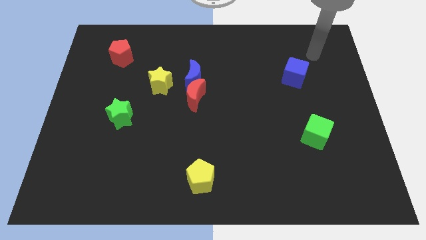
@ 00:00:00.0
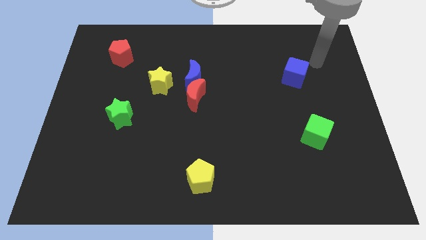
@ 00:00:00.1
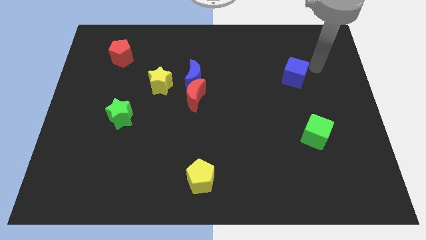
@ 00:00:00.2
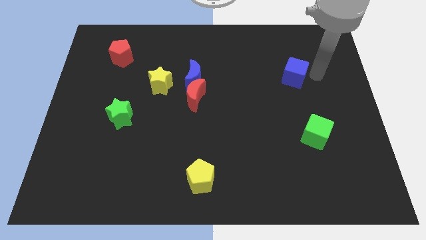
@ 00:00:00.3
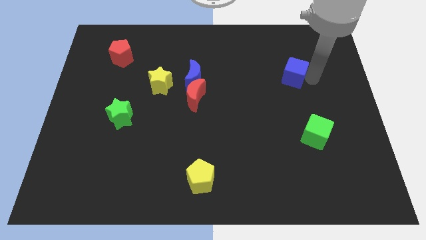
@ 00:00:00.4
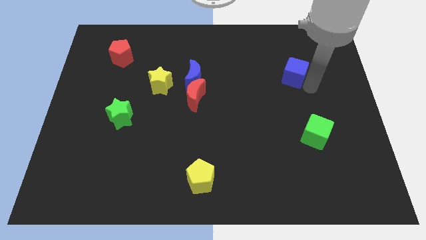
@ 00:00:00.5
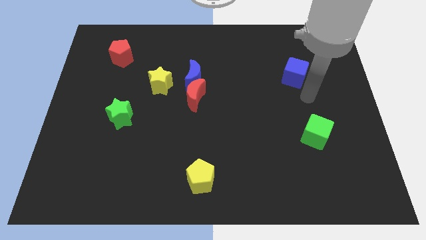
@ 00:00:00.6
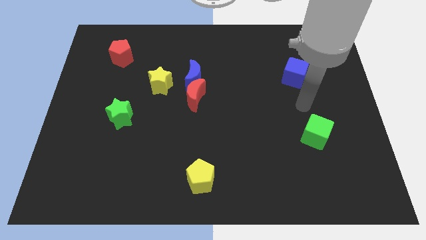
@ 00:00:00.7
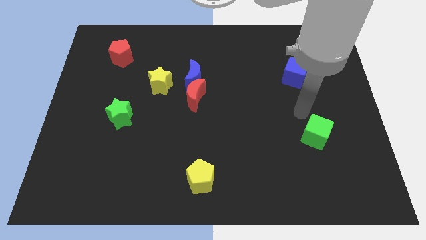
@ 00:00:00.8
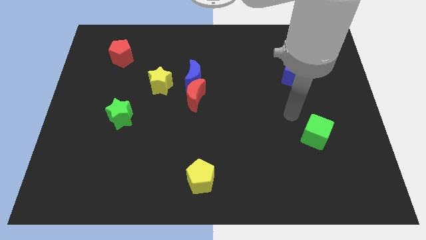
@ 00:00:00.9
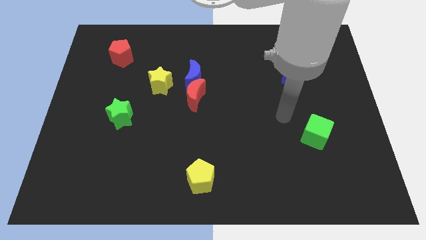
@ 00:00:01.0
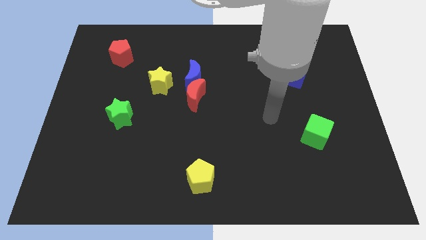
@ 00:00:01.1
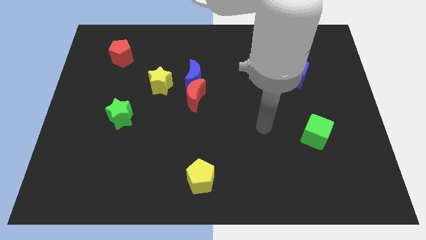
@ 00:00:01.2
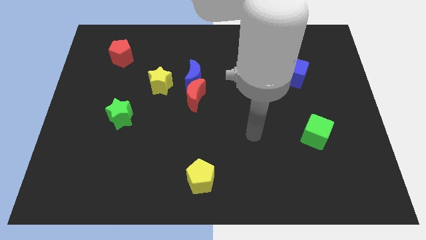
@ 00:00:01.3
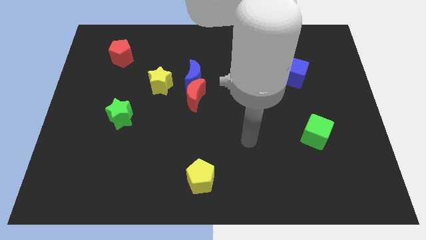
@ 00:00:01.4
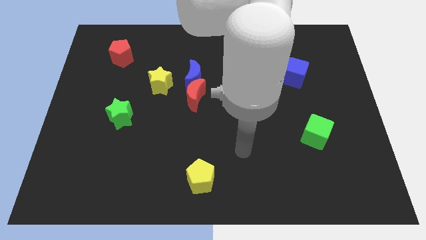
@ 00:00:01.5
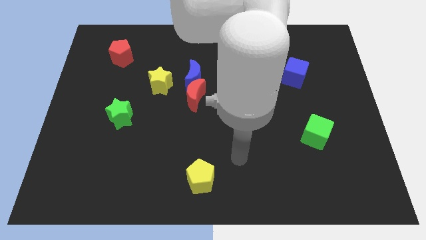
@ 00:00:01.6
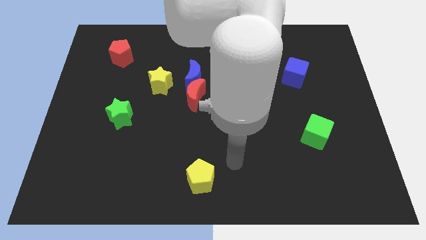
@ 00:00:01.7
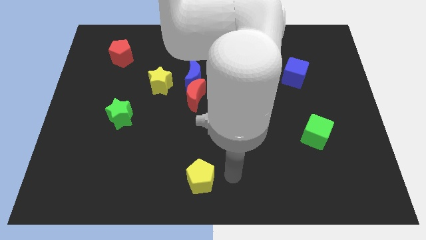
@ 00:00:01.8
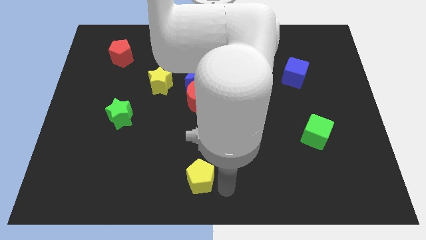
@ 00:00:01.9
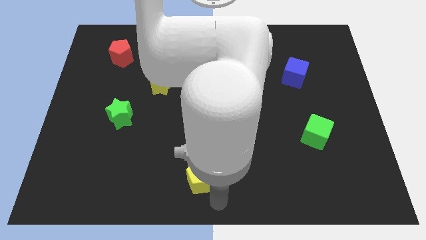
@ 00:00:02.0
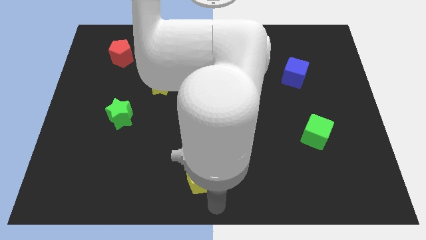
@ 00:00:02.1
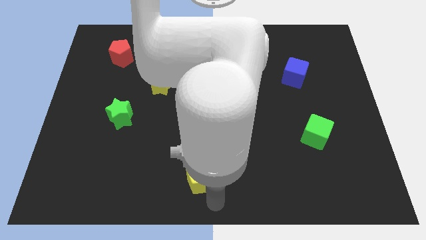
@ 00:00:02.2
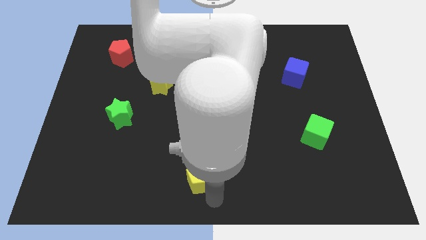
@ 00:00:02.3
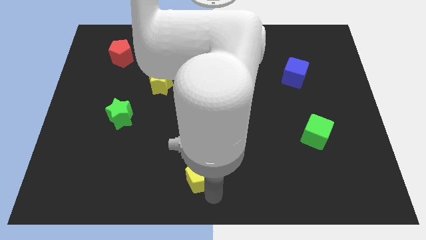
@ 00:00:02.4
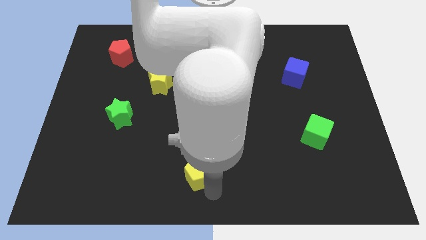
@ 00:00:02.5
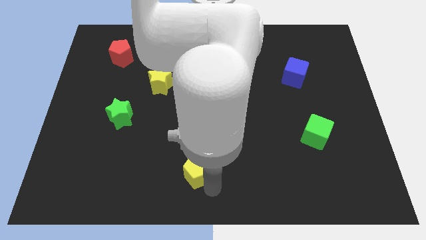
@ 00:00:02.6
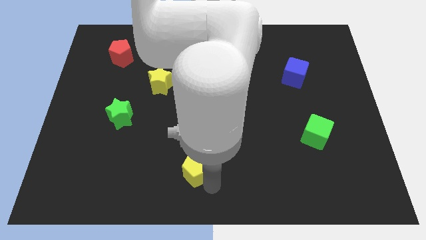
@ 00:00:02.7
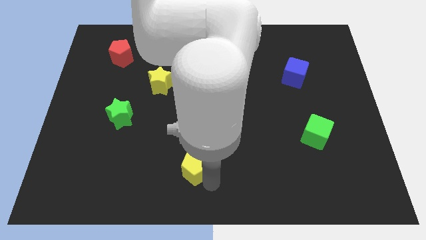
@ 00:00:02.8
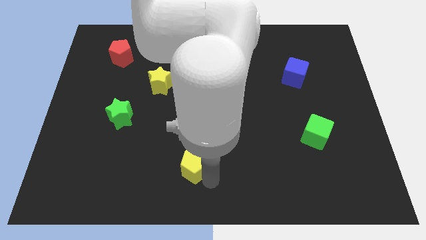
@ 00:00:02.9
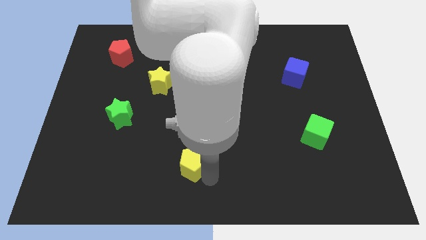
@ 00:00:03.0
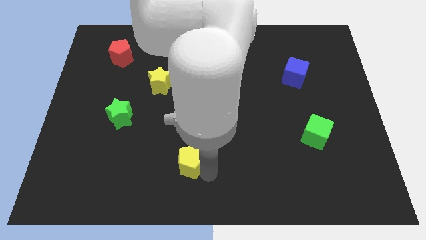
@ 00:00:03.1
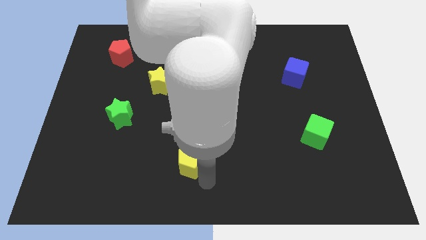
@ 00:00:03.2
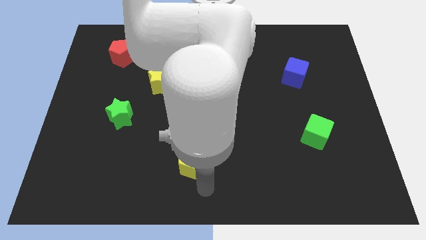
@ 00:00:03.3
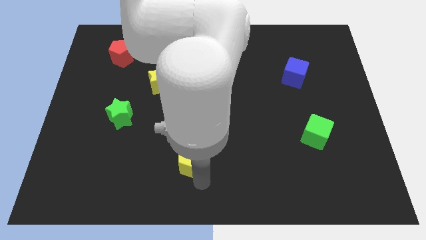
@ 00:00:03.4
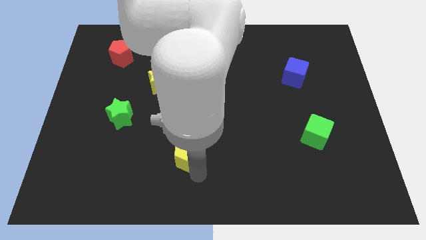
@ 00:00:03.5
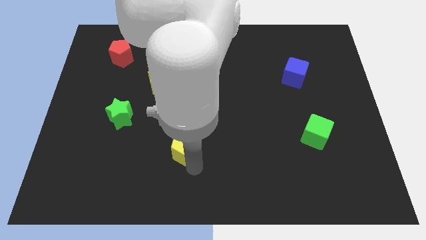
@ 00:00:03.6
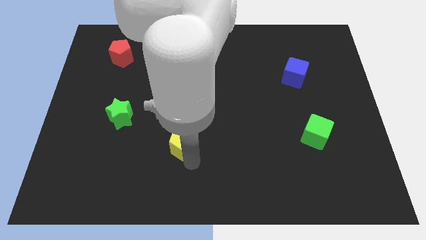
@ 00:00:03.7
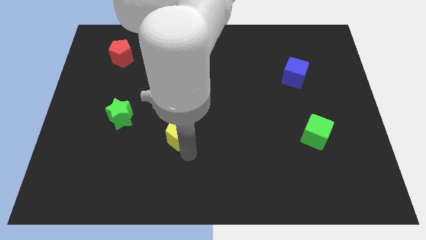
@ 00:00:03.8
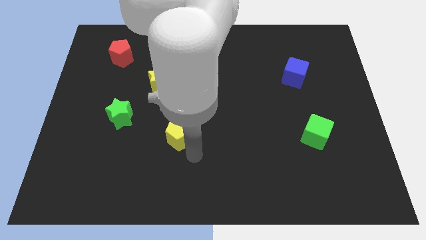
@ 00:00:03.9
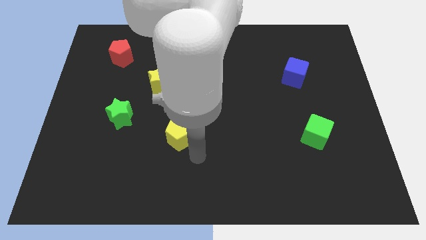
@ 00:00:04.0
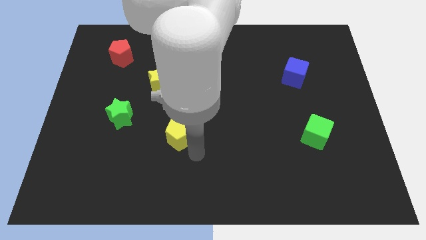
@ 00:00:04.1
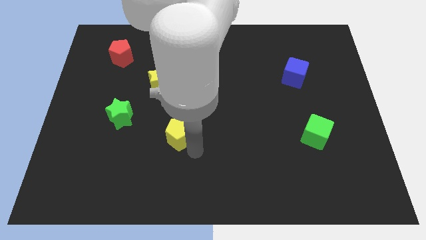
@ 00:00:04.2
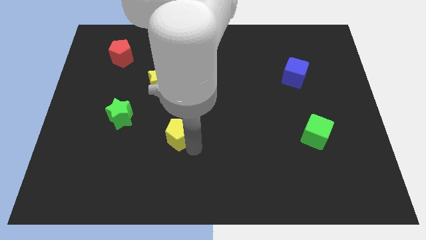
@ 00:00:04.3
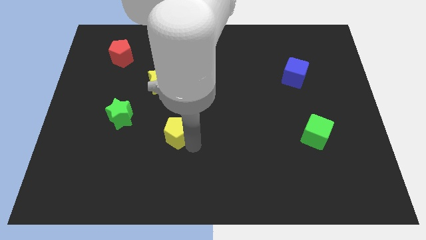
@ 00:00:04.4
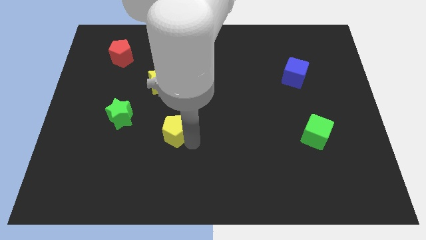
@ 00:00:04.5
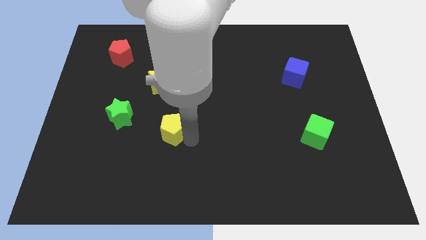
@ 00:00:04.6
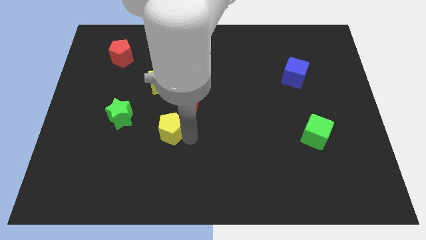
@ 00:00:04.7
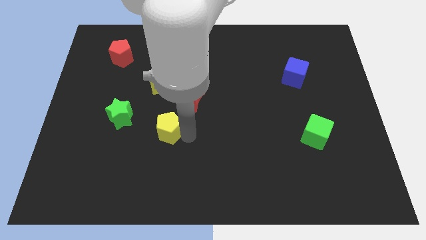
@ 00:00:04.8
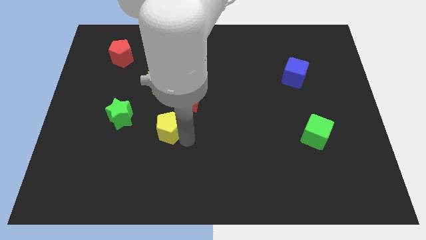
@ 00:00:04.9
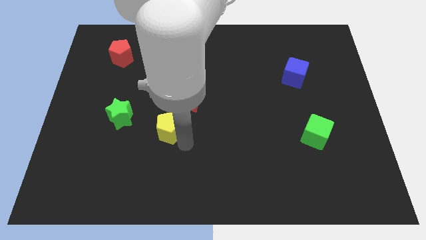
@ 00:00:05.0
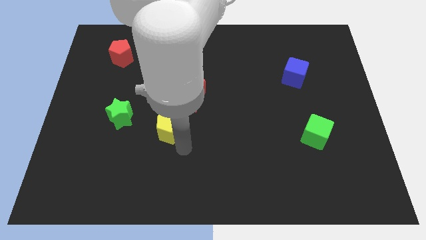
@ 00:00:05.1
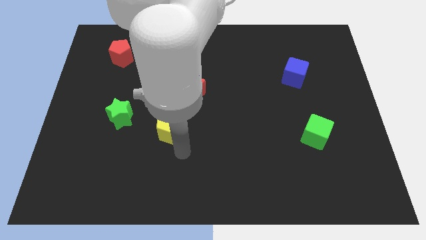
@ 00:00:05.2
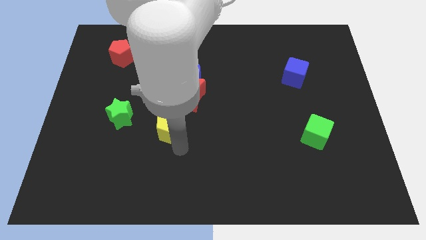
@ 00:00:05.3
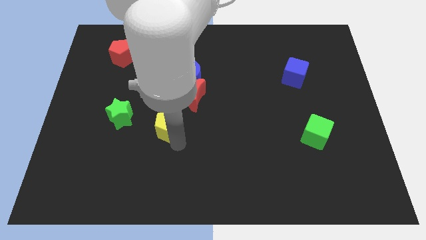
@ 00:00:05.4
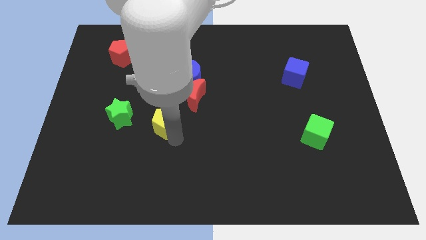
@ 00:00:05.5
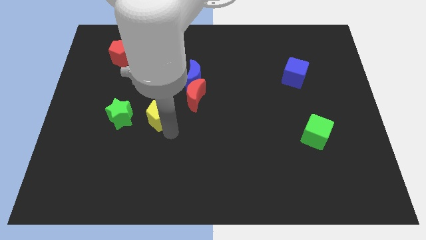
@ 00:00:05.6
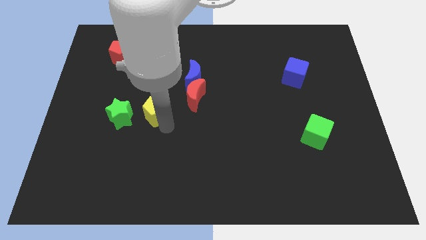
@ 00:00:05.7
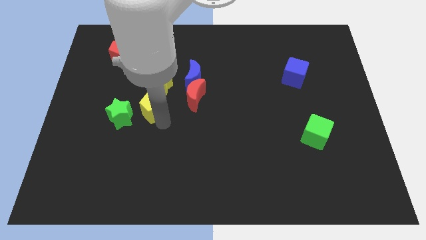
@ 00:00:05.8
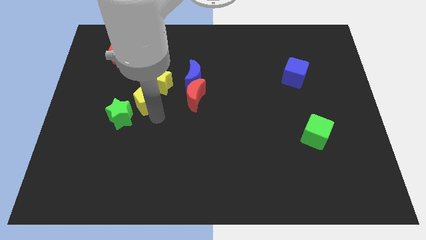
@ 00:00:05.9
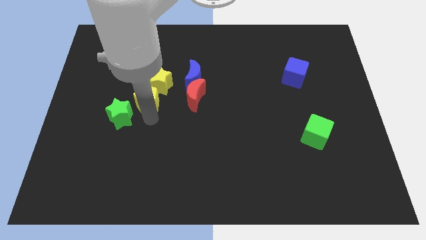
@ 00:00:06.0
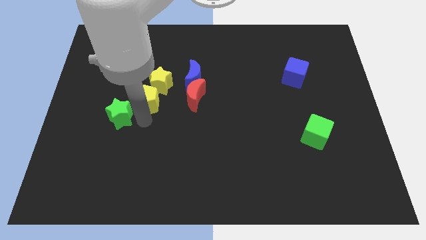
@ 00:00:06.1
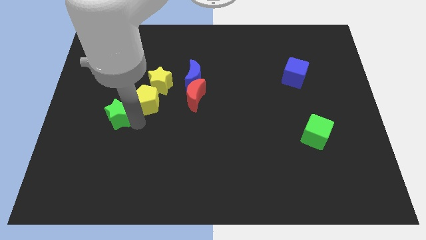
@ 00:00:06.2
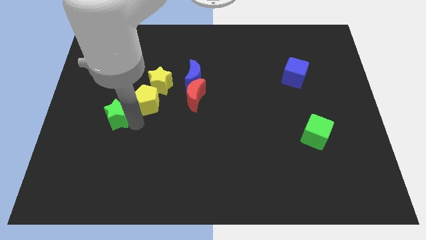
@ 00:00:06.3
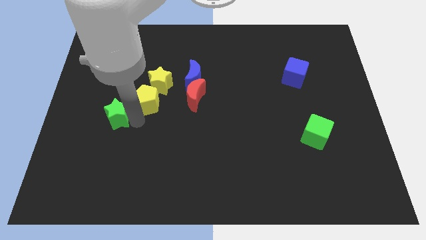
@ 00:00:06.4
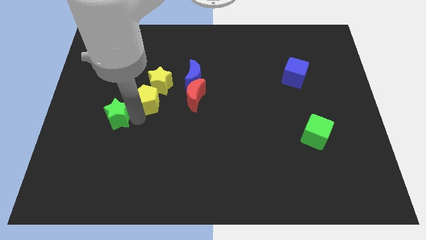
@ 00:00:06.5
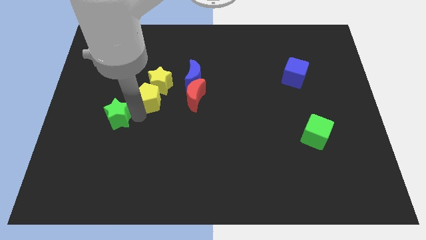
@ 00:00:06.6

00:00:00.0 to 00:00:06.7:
push the yellow pentagon next to the yellow star
